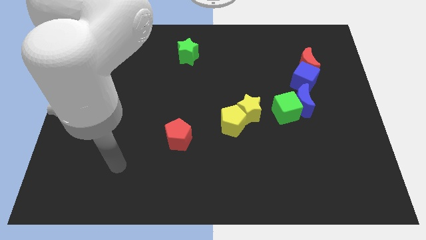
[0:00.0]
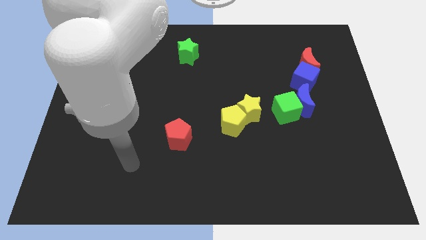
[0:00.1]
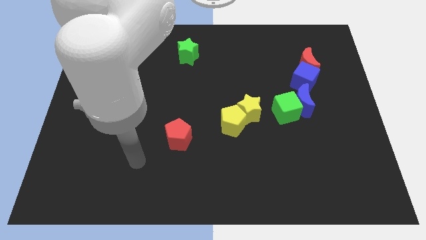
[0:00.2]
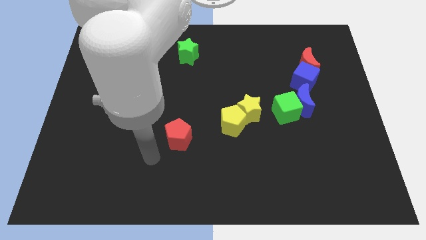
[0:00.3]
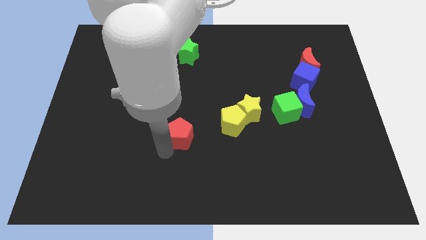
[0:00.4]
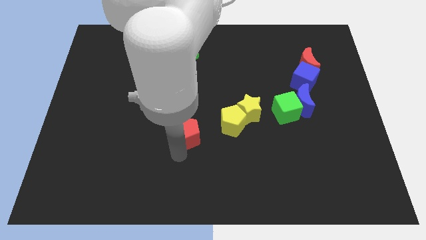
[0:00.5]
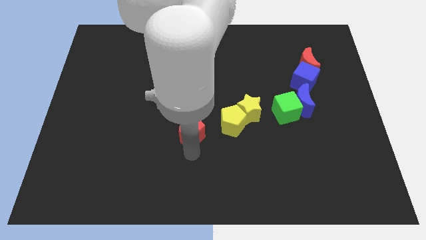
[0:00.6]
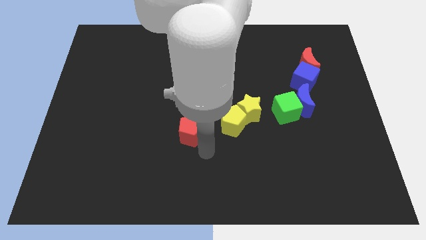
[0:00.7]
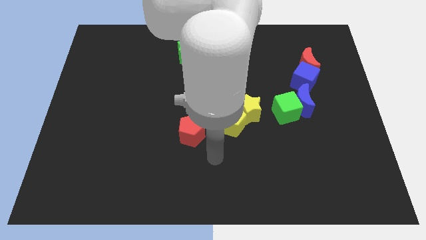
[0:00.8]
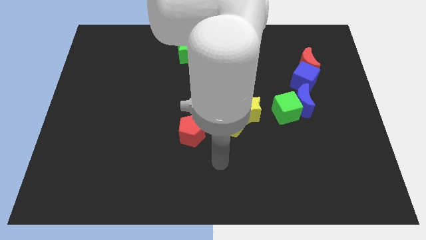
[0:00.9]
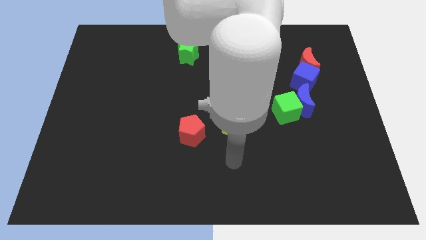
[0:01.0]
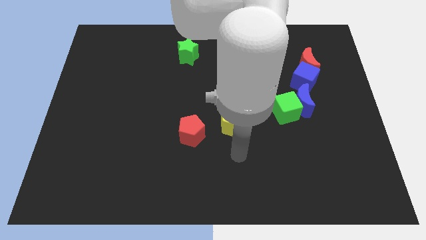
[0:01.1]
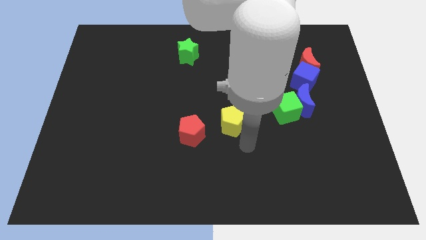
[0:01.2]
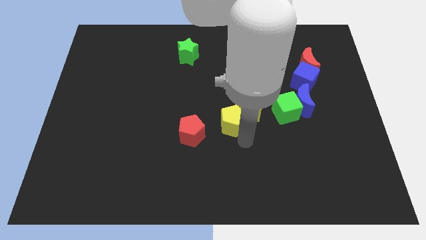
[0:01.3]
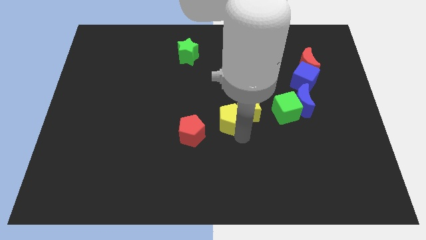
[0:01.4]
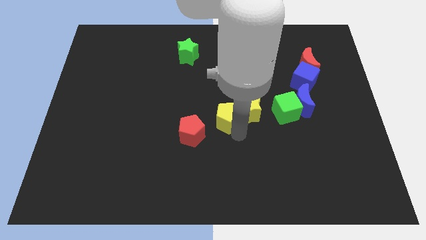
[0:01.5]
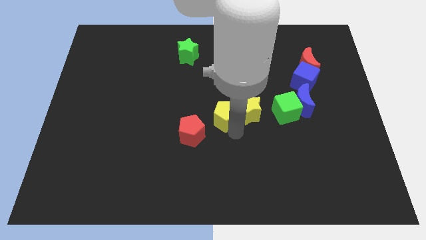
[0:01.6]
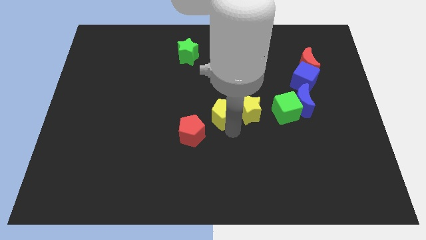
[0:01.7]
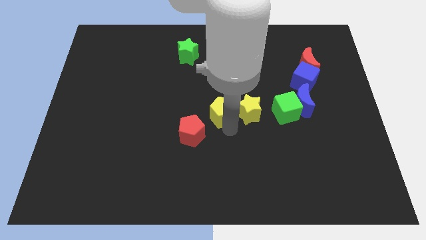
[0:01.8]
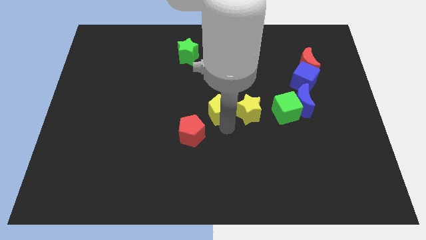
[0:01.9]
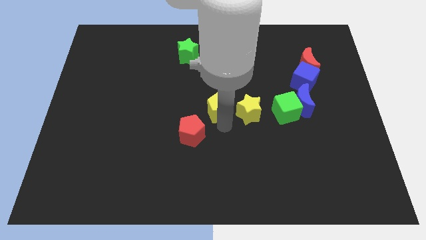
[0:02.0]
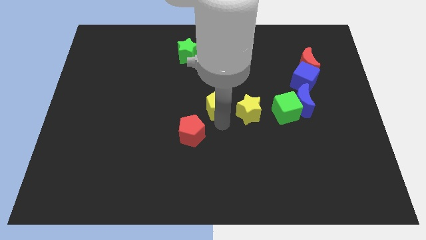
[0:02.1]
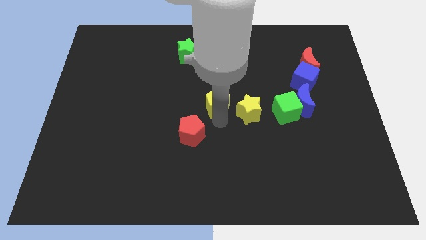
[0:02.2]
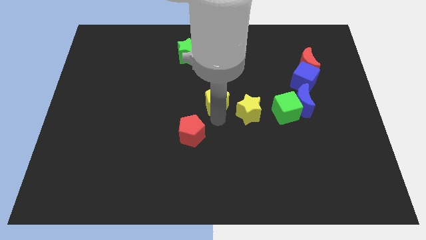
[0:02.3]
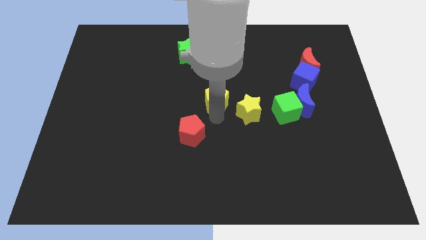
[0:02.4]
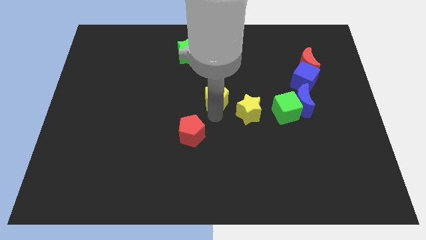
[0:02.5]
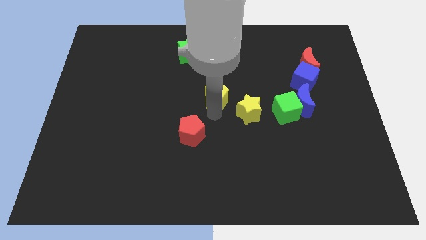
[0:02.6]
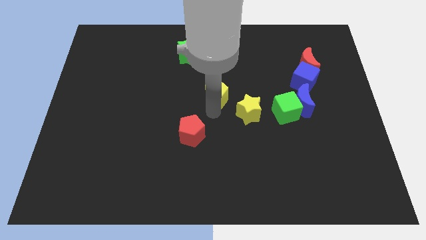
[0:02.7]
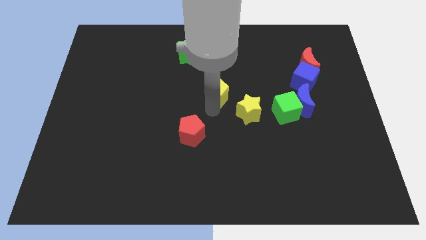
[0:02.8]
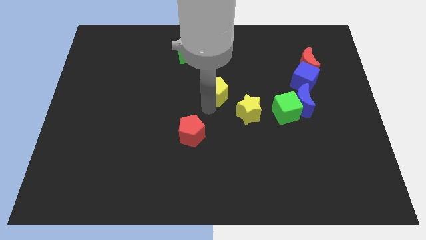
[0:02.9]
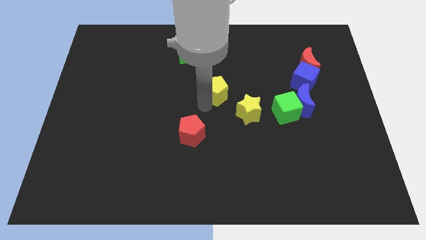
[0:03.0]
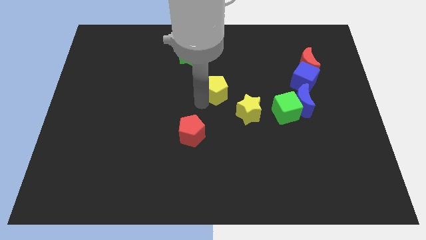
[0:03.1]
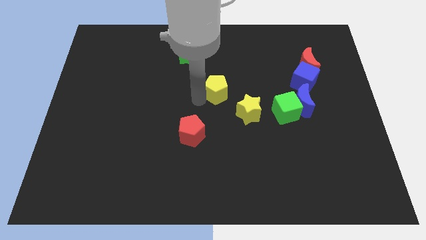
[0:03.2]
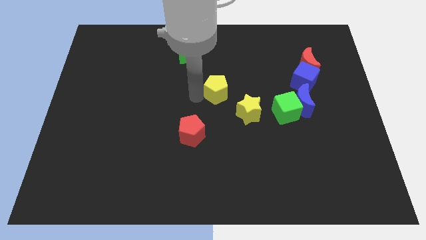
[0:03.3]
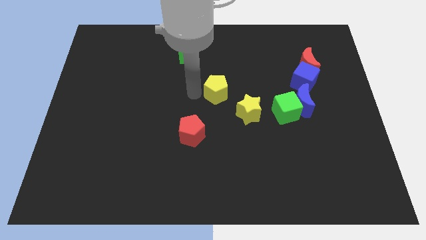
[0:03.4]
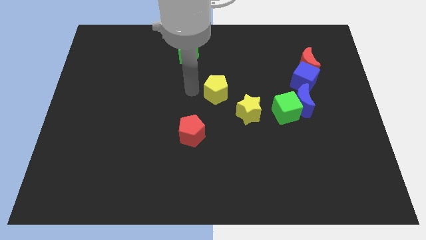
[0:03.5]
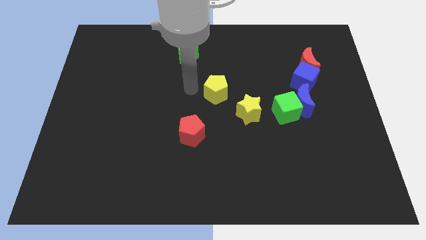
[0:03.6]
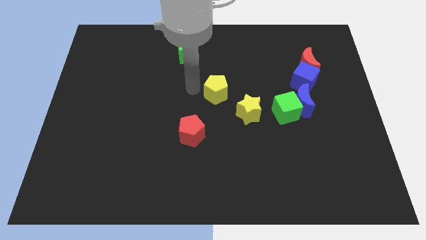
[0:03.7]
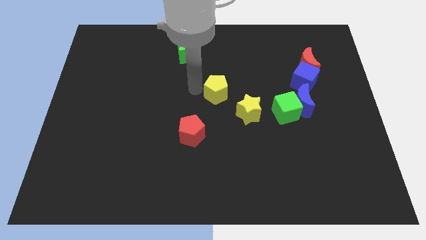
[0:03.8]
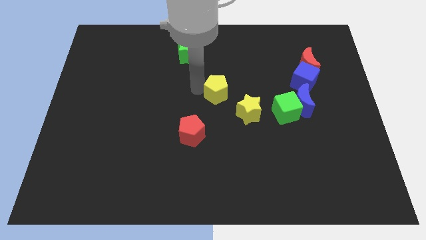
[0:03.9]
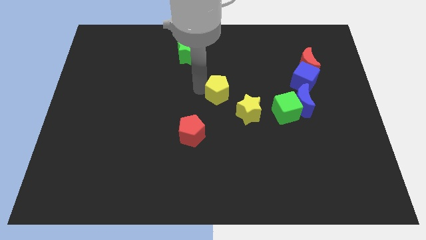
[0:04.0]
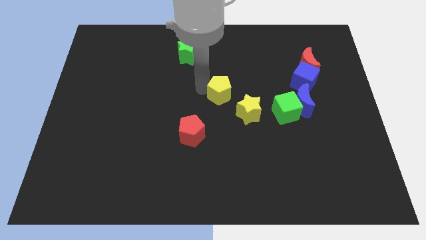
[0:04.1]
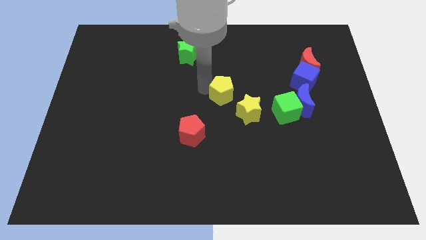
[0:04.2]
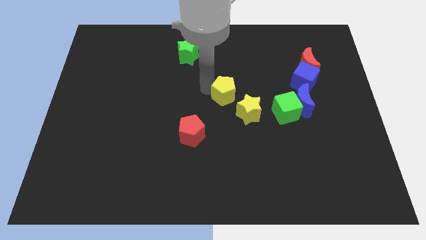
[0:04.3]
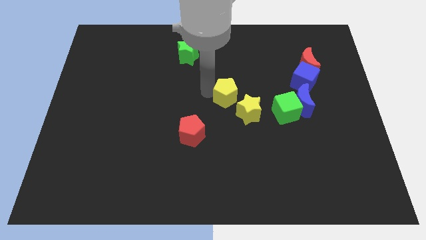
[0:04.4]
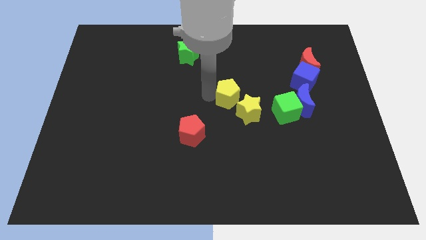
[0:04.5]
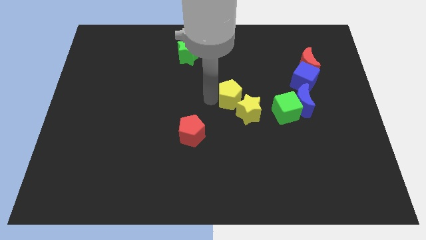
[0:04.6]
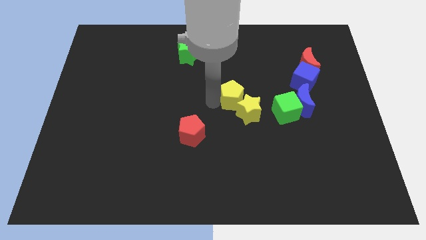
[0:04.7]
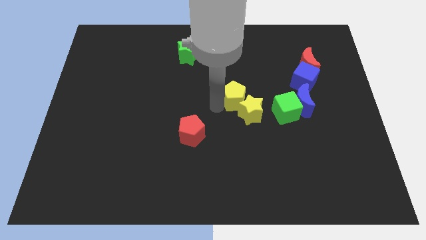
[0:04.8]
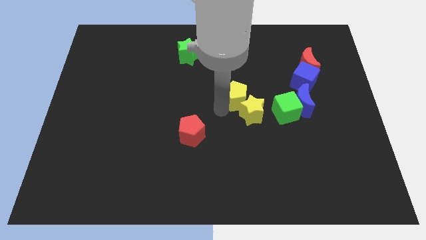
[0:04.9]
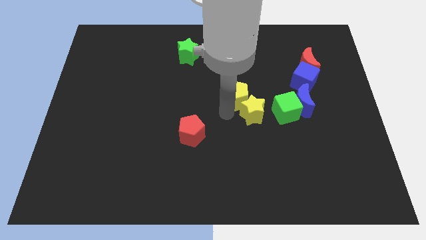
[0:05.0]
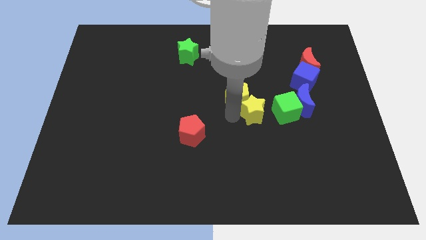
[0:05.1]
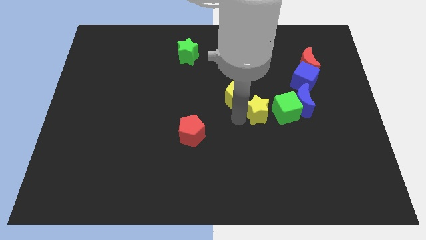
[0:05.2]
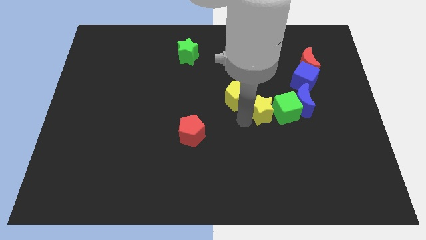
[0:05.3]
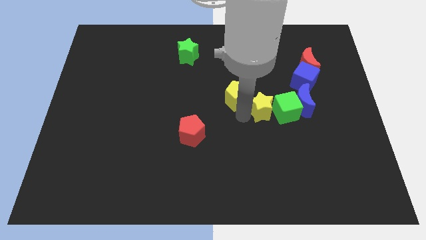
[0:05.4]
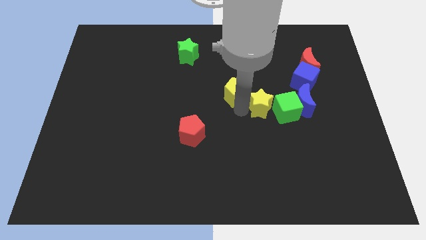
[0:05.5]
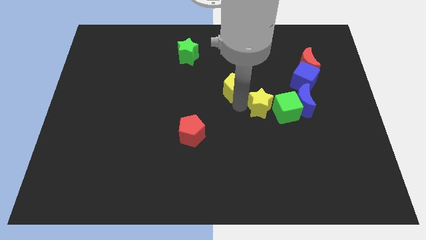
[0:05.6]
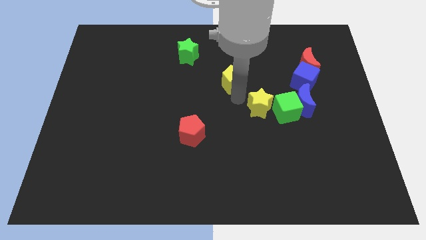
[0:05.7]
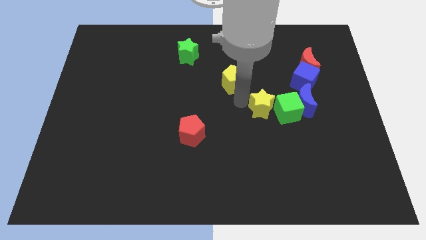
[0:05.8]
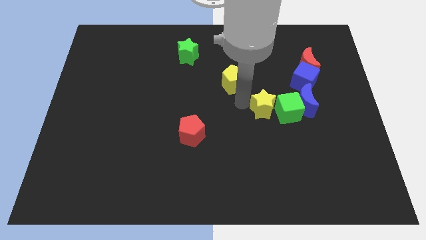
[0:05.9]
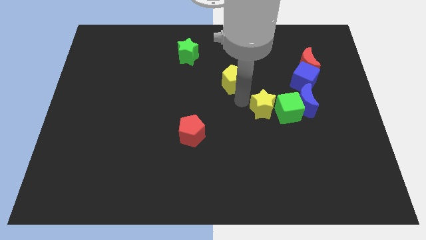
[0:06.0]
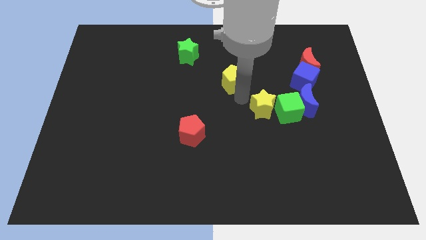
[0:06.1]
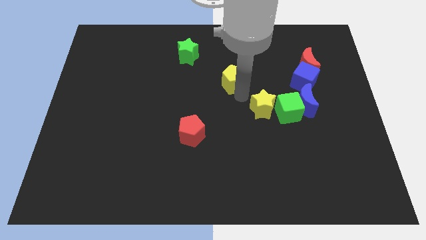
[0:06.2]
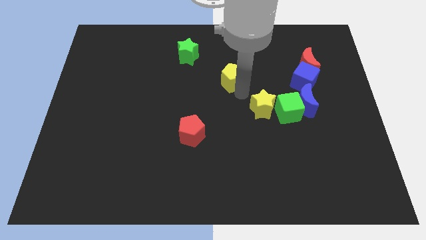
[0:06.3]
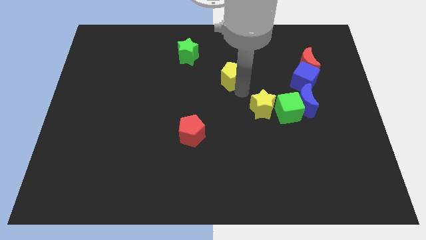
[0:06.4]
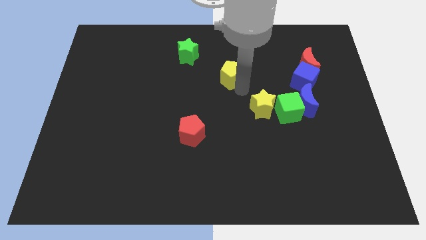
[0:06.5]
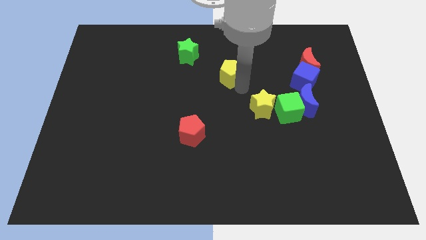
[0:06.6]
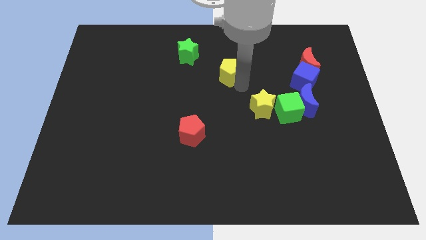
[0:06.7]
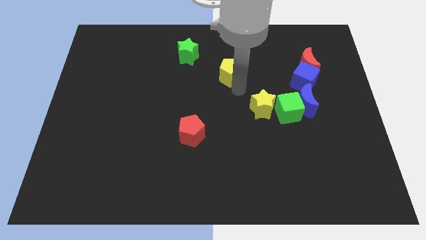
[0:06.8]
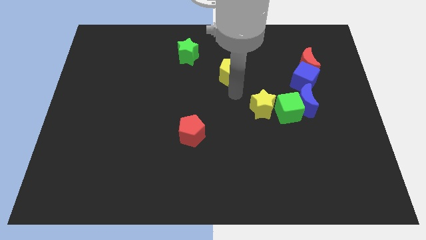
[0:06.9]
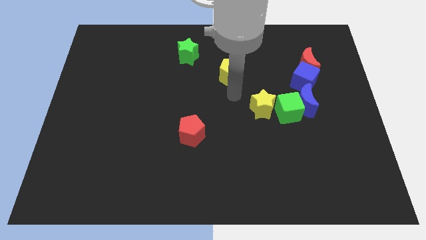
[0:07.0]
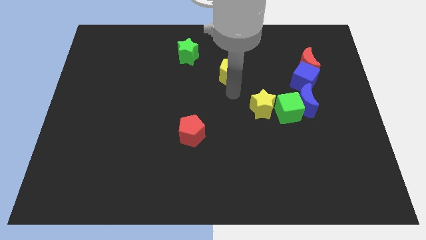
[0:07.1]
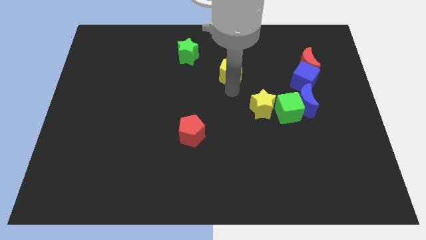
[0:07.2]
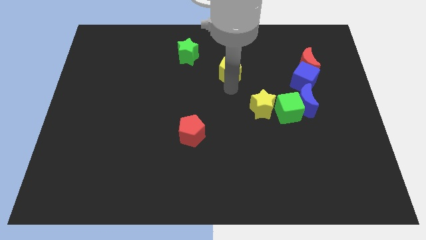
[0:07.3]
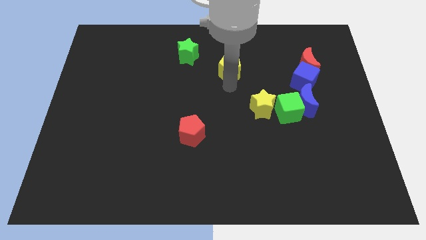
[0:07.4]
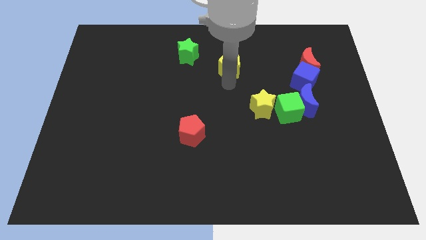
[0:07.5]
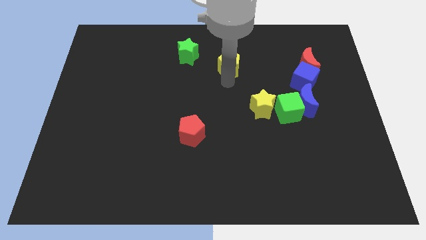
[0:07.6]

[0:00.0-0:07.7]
slide the yellow pentagon right of the green star
